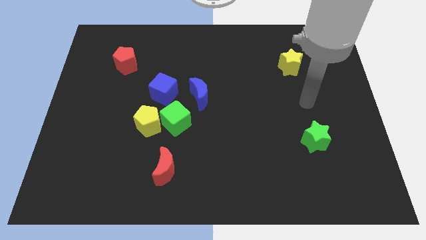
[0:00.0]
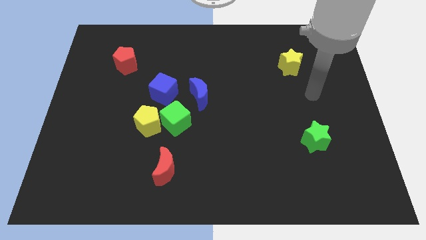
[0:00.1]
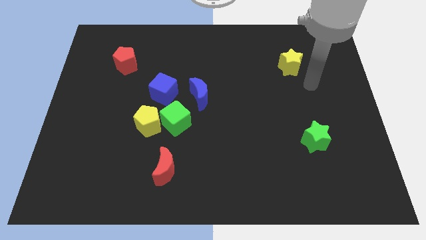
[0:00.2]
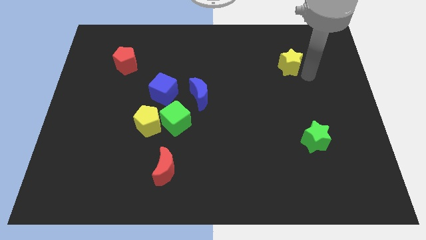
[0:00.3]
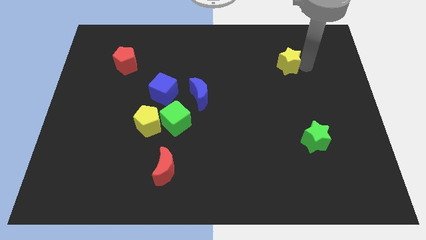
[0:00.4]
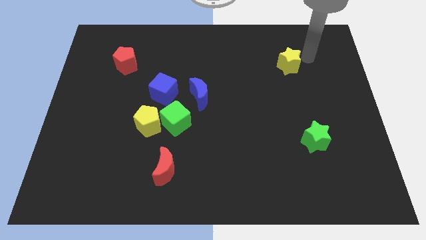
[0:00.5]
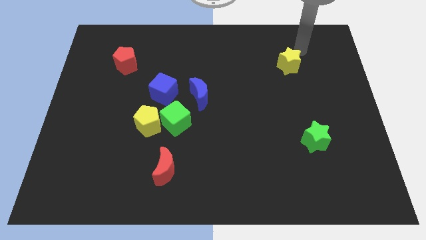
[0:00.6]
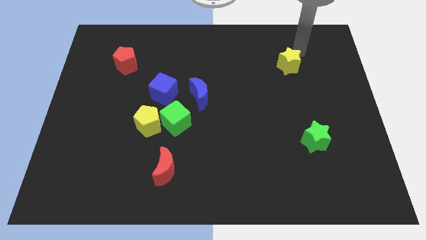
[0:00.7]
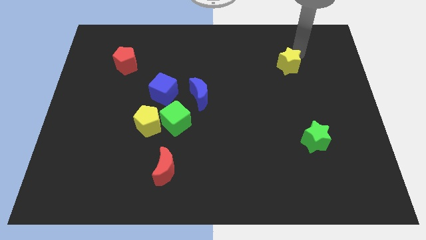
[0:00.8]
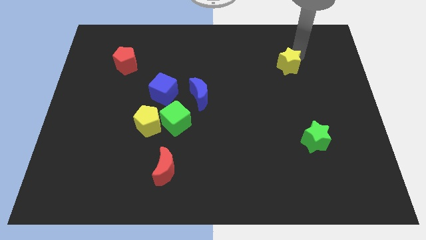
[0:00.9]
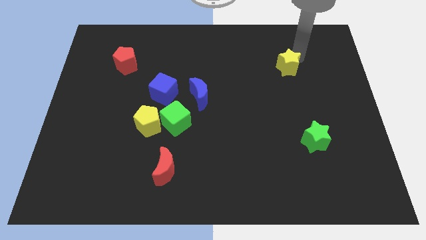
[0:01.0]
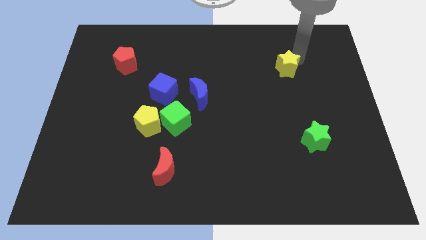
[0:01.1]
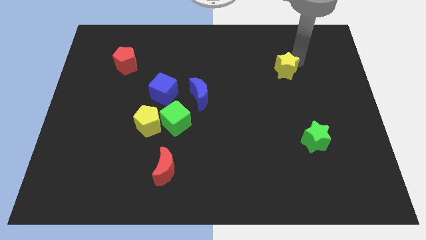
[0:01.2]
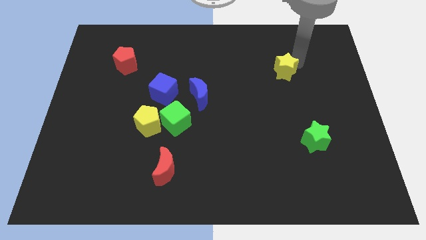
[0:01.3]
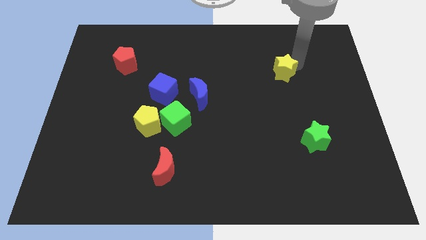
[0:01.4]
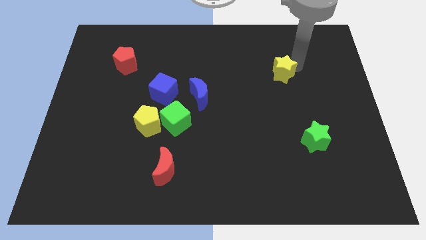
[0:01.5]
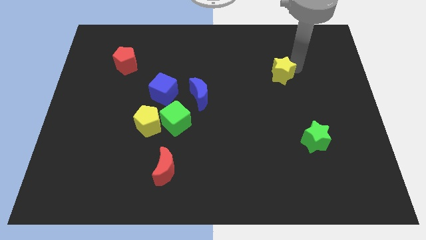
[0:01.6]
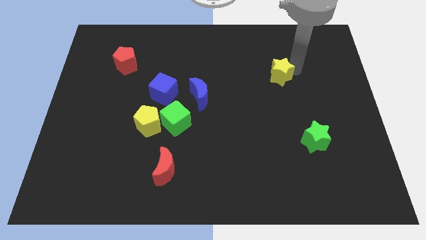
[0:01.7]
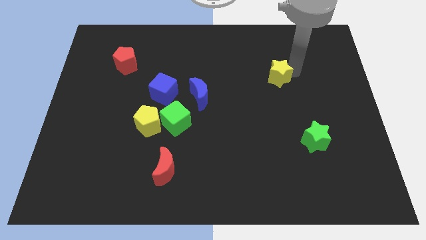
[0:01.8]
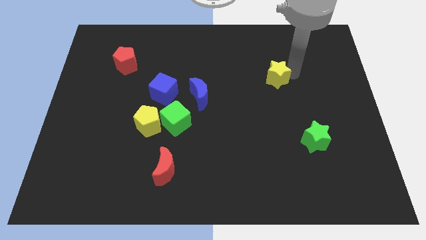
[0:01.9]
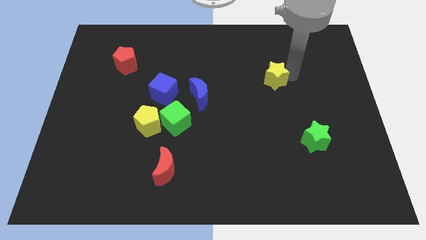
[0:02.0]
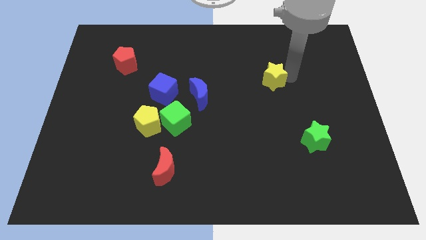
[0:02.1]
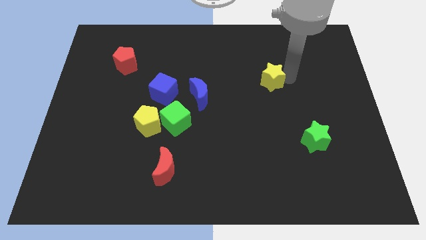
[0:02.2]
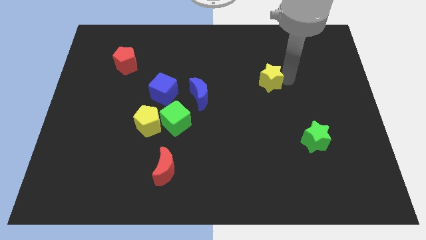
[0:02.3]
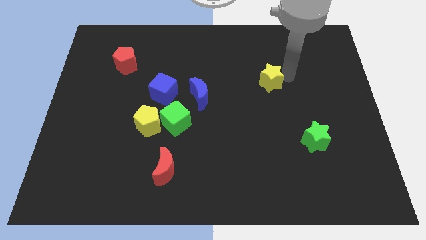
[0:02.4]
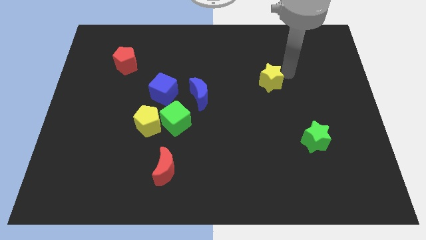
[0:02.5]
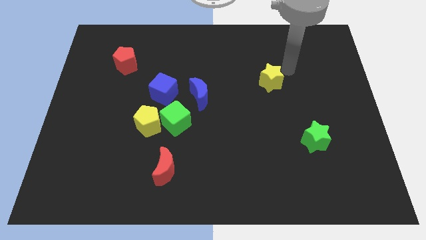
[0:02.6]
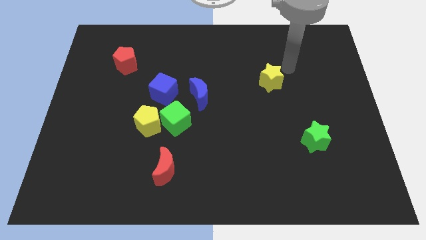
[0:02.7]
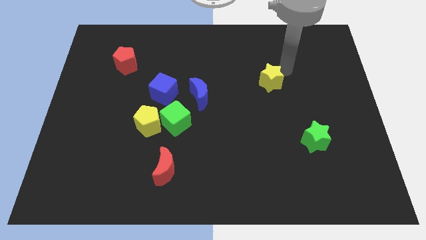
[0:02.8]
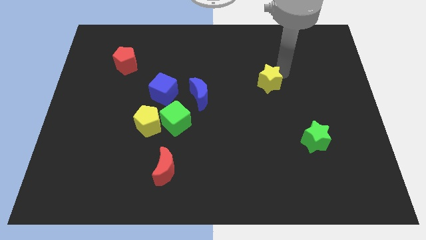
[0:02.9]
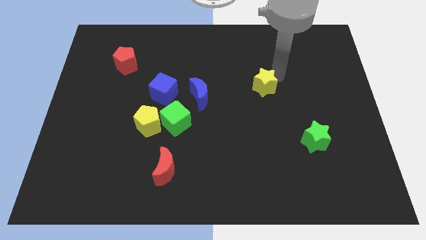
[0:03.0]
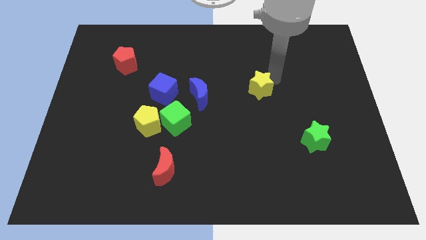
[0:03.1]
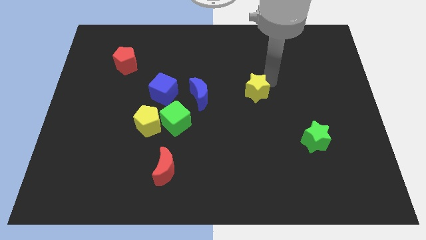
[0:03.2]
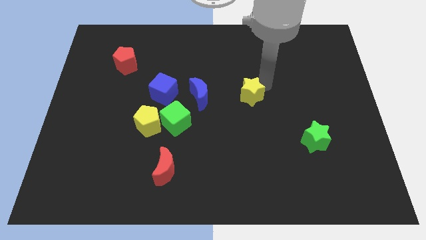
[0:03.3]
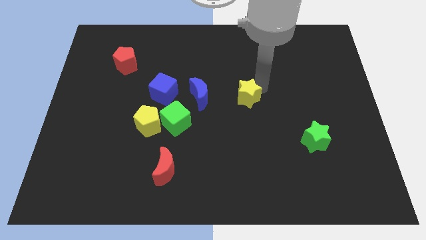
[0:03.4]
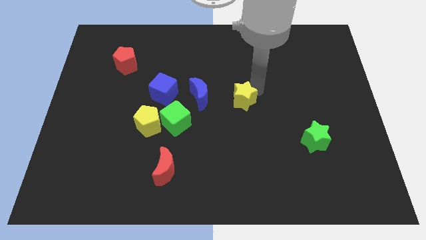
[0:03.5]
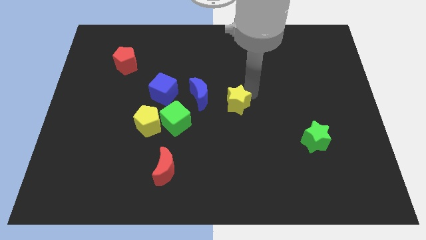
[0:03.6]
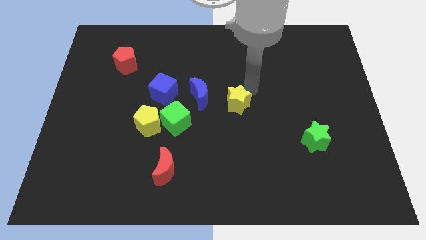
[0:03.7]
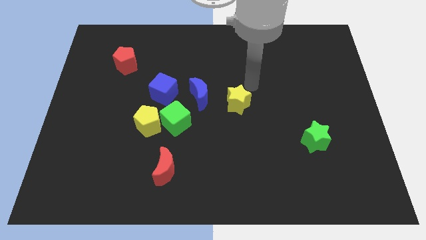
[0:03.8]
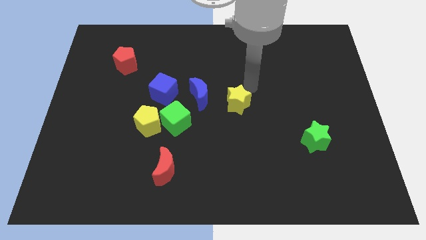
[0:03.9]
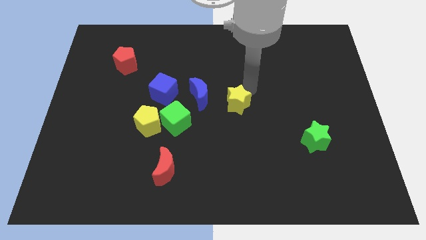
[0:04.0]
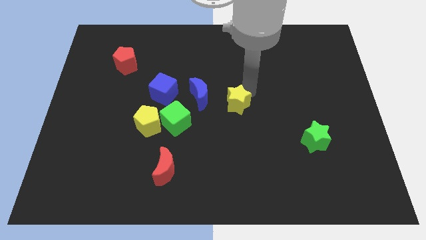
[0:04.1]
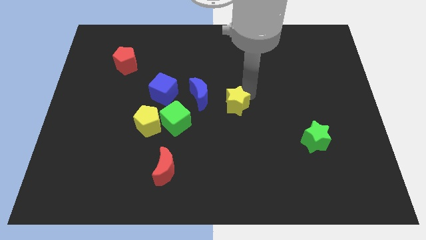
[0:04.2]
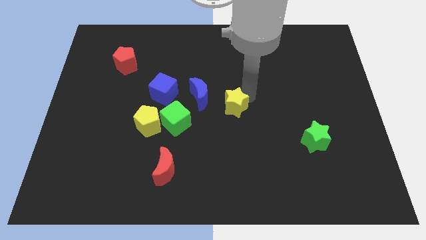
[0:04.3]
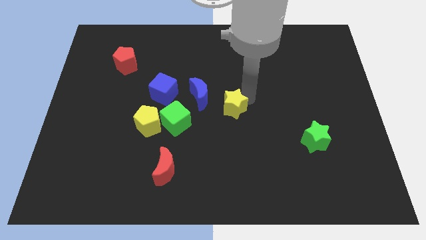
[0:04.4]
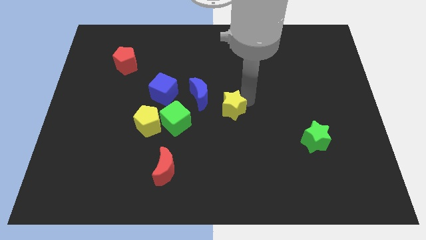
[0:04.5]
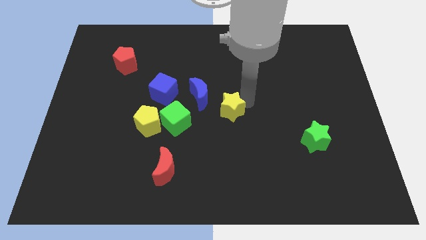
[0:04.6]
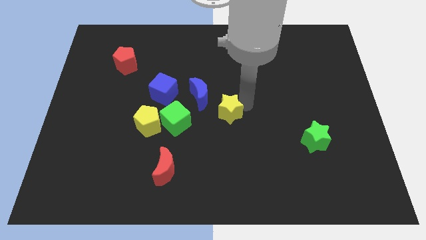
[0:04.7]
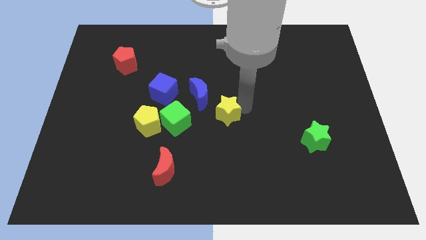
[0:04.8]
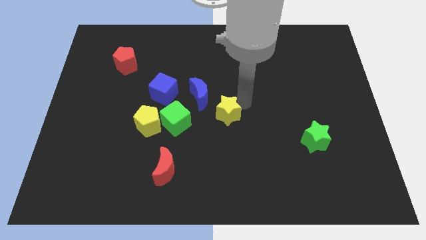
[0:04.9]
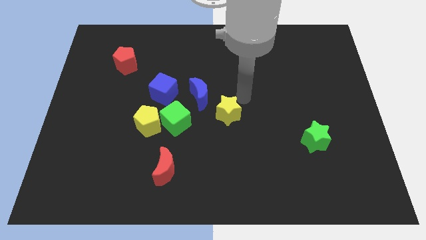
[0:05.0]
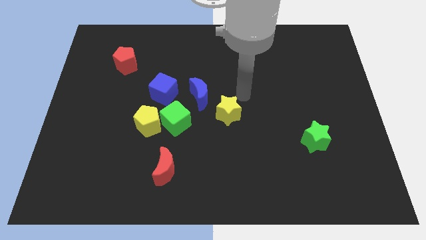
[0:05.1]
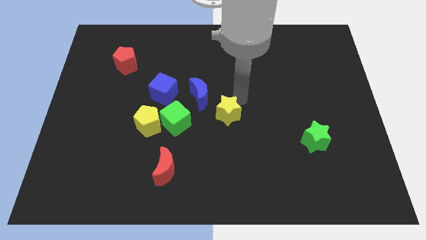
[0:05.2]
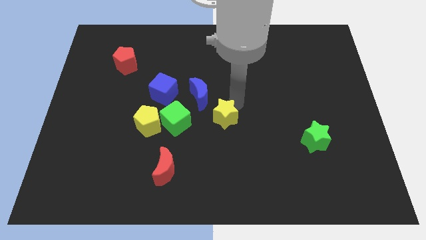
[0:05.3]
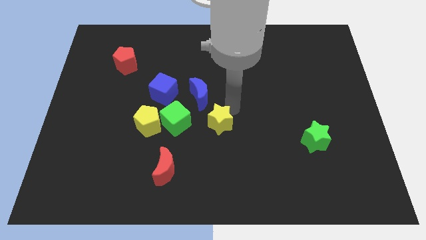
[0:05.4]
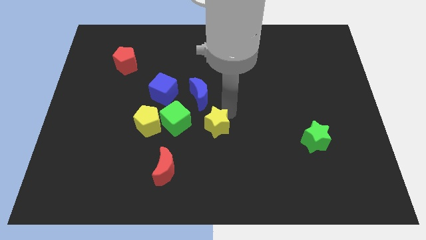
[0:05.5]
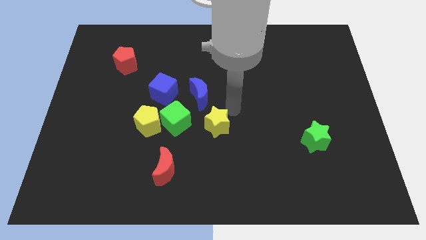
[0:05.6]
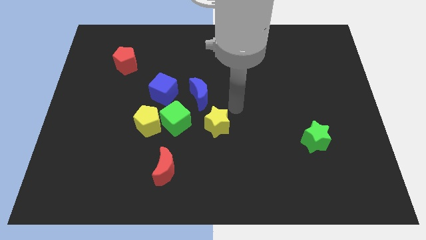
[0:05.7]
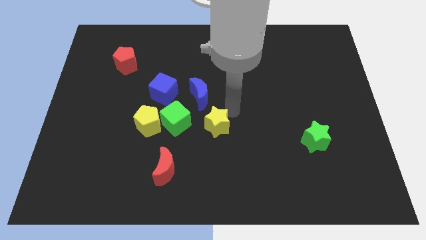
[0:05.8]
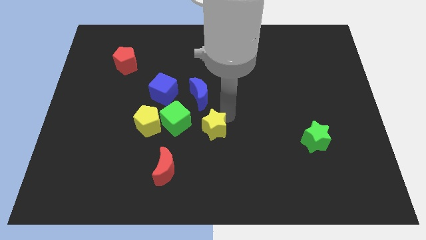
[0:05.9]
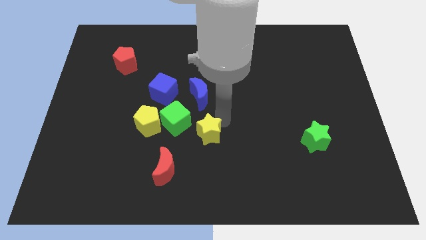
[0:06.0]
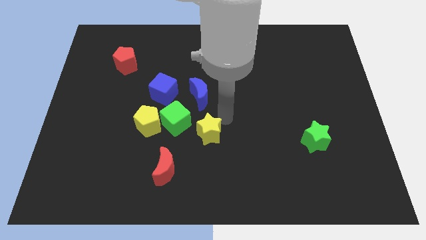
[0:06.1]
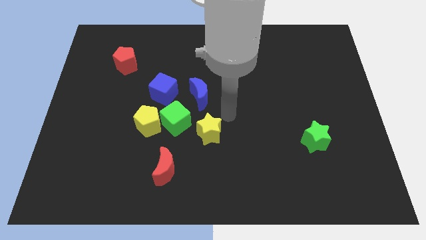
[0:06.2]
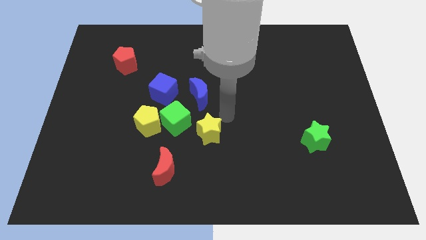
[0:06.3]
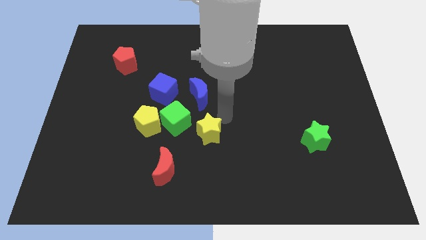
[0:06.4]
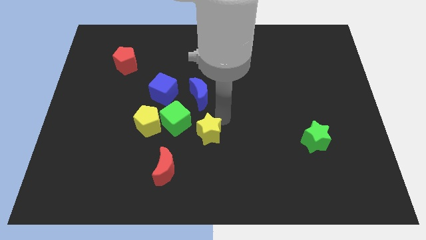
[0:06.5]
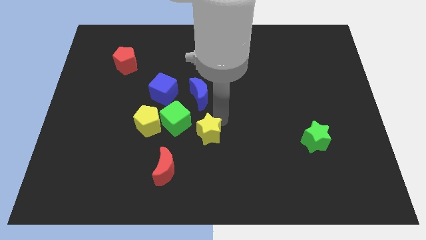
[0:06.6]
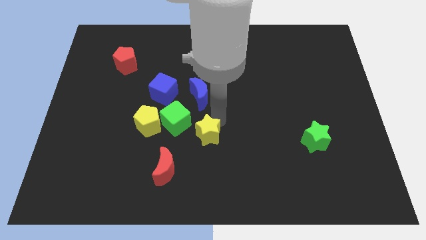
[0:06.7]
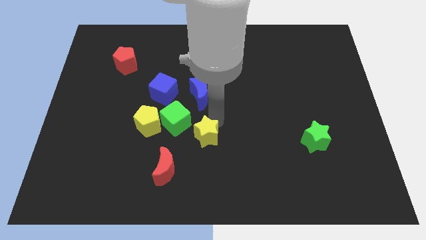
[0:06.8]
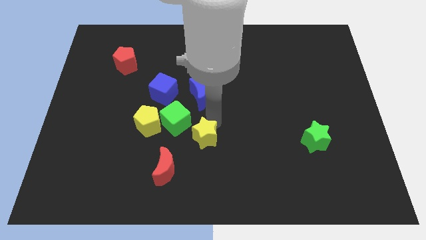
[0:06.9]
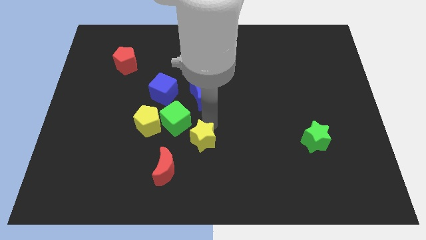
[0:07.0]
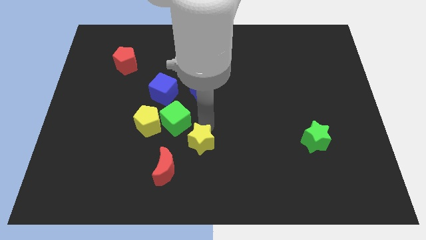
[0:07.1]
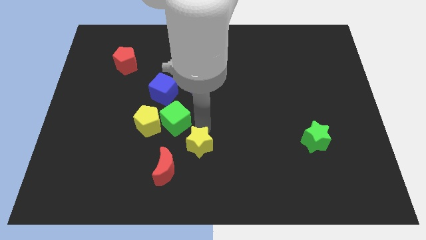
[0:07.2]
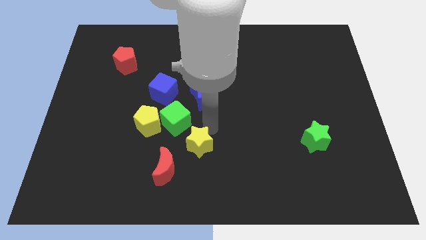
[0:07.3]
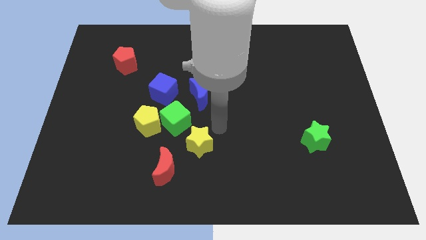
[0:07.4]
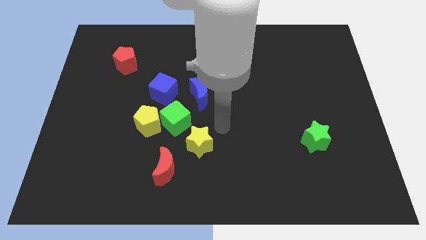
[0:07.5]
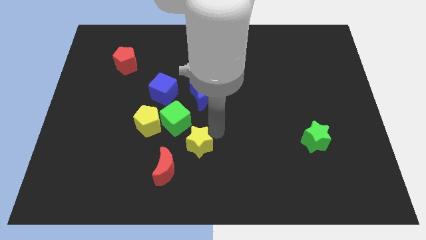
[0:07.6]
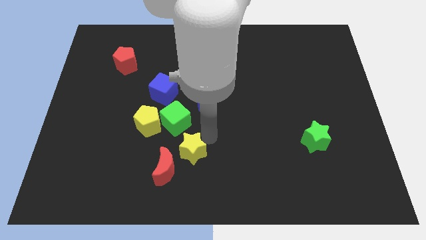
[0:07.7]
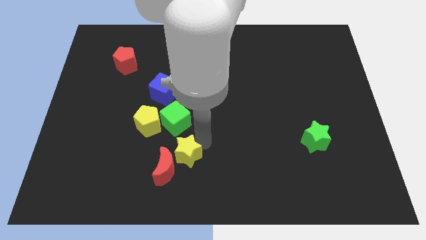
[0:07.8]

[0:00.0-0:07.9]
put the yellow star close to the red moon
